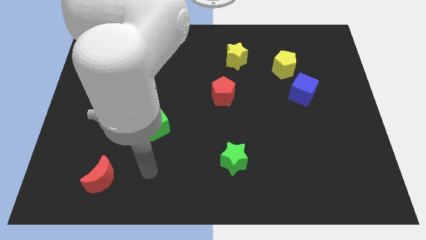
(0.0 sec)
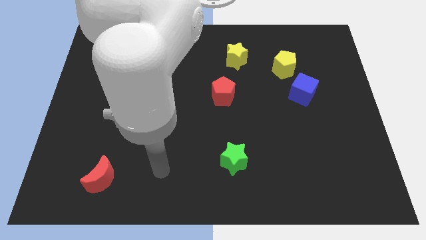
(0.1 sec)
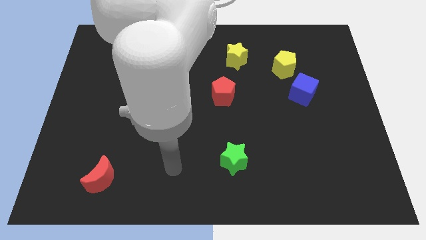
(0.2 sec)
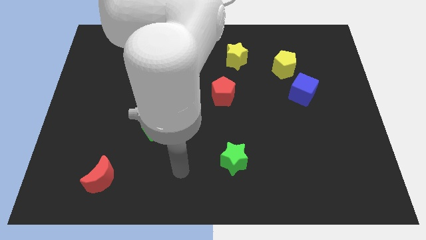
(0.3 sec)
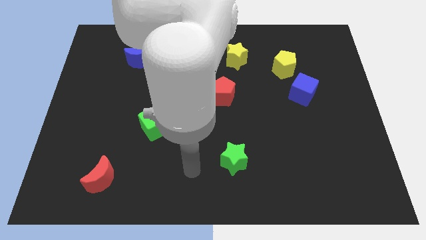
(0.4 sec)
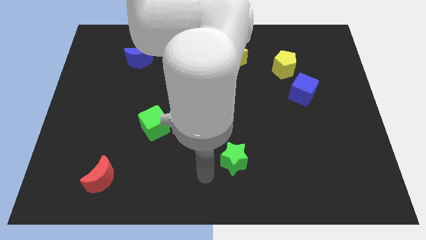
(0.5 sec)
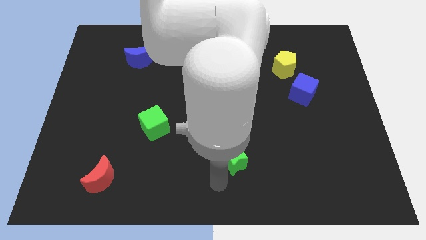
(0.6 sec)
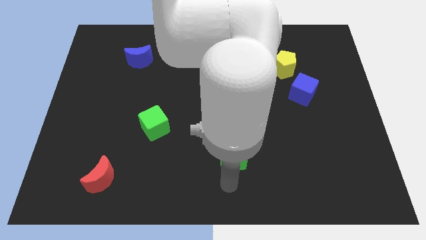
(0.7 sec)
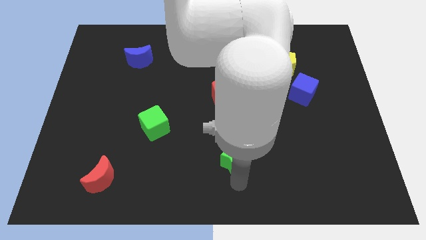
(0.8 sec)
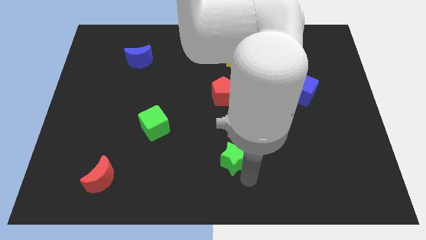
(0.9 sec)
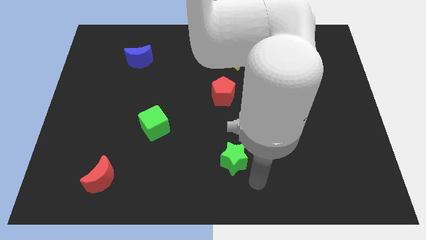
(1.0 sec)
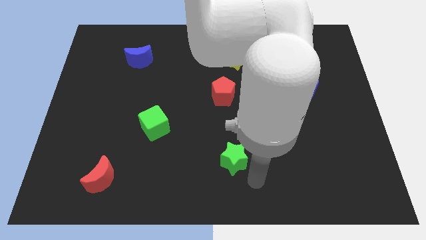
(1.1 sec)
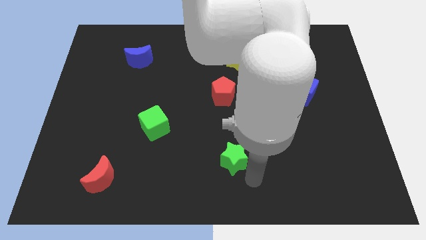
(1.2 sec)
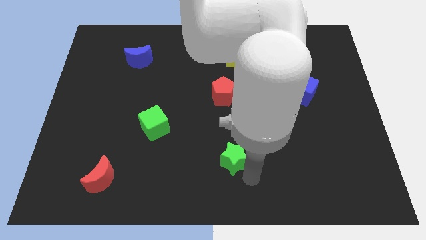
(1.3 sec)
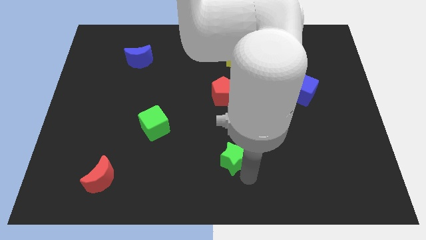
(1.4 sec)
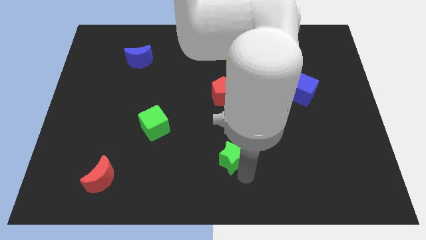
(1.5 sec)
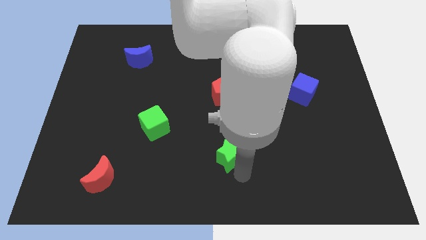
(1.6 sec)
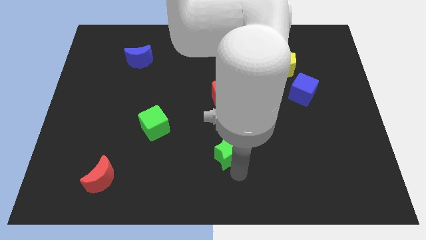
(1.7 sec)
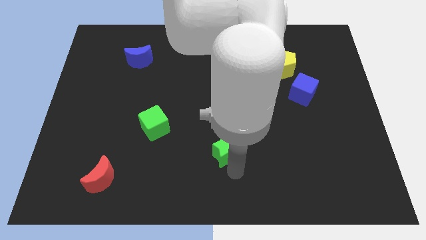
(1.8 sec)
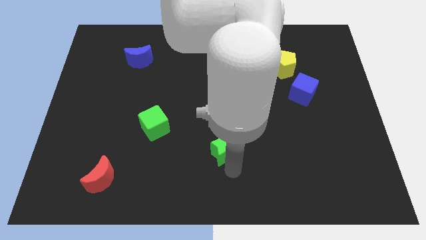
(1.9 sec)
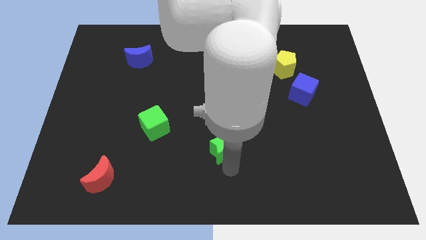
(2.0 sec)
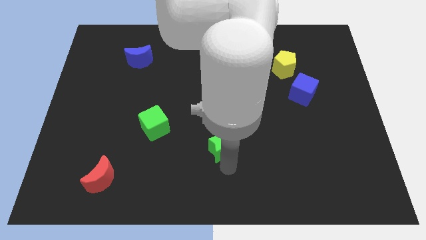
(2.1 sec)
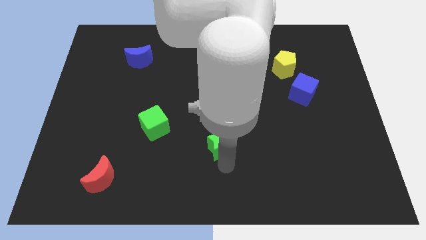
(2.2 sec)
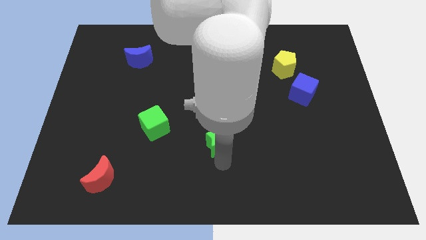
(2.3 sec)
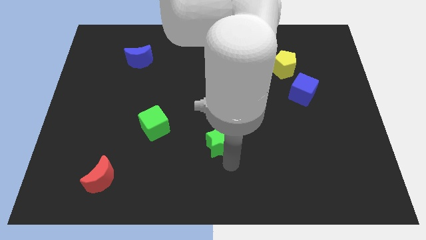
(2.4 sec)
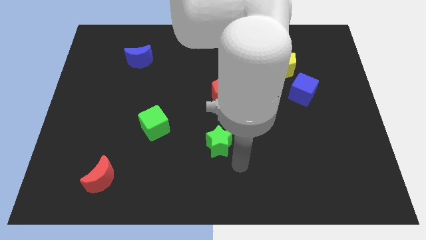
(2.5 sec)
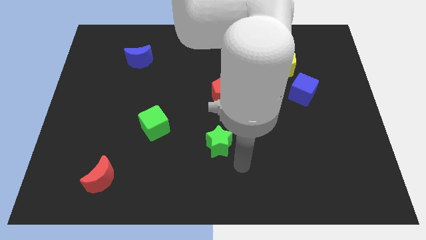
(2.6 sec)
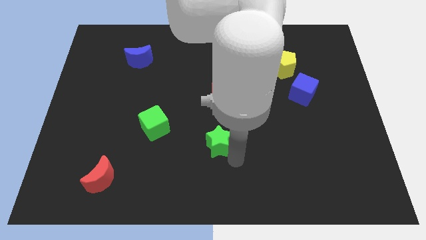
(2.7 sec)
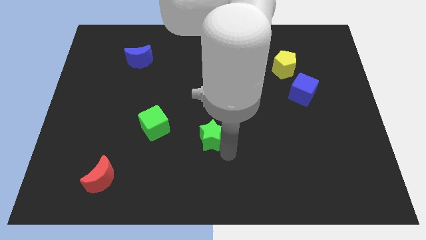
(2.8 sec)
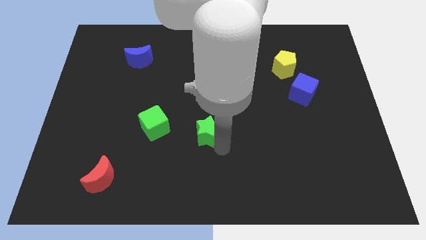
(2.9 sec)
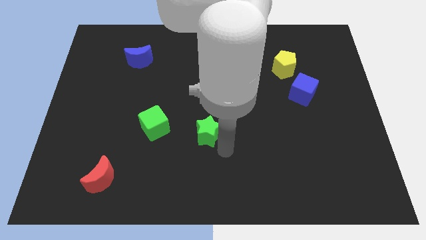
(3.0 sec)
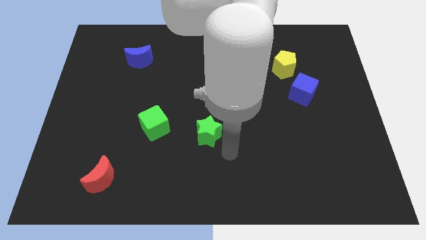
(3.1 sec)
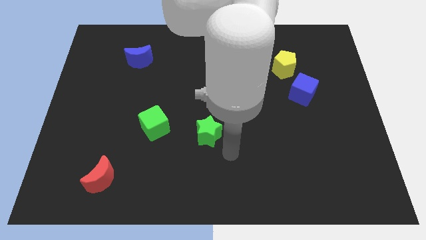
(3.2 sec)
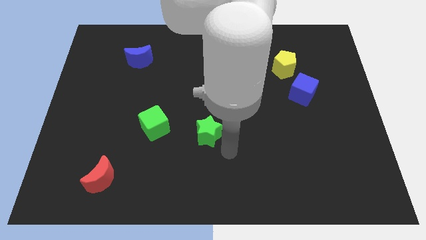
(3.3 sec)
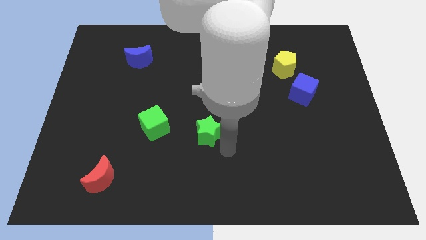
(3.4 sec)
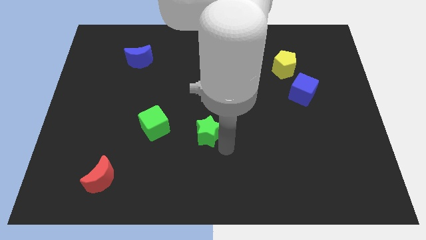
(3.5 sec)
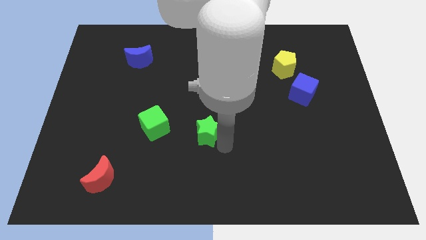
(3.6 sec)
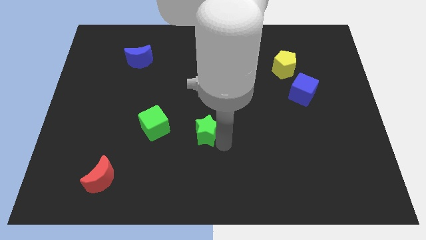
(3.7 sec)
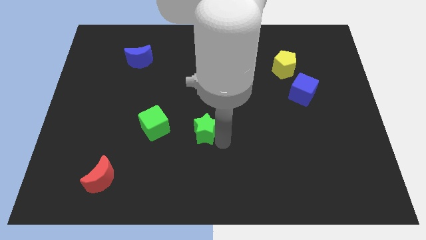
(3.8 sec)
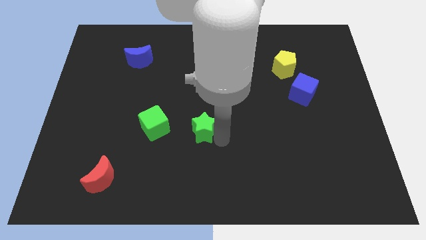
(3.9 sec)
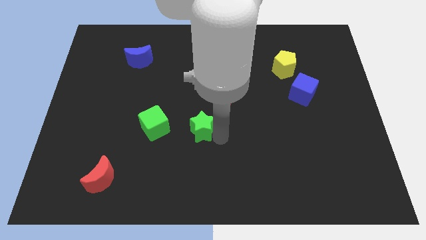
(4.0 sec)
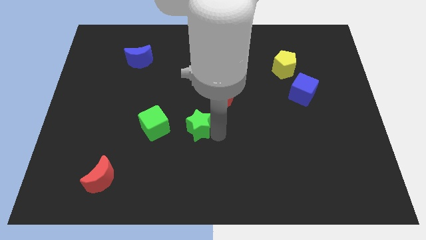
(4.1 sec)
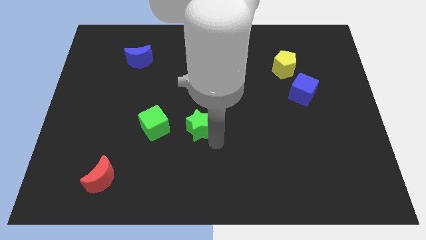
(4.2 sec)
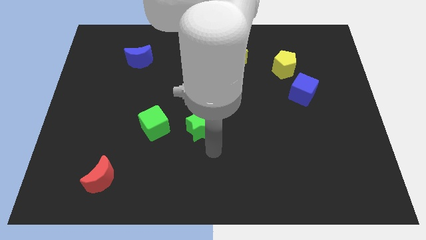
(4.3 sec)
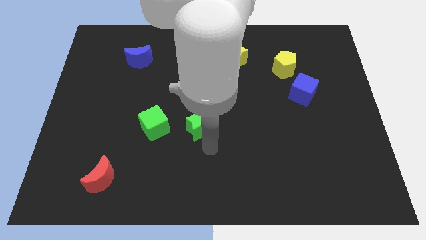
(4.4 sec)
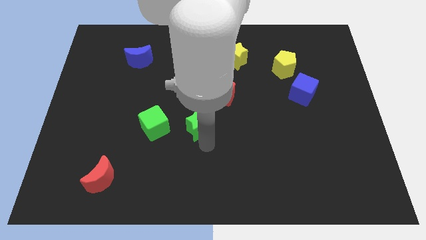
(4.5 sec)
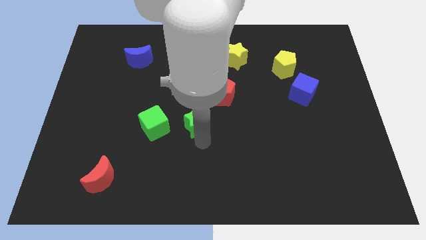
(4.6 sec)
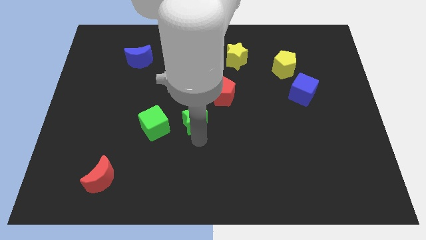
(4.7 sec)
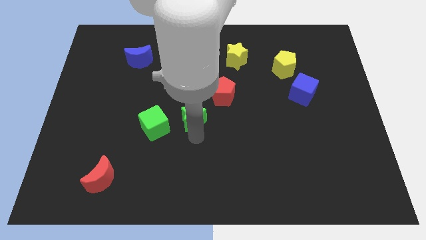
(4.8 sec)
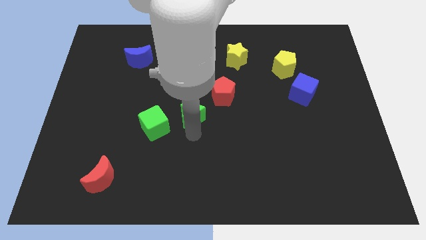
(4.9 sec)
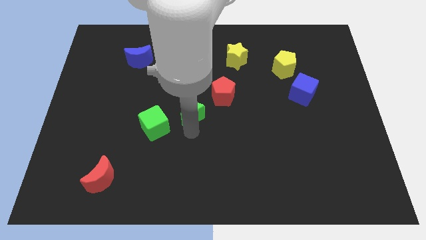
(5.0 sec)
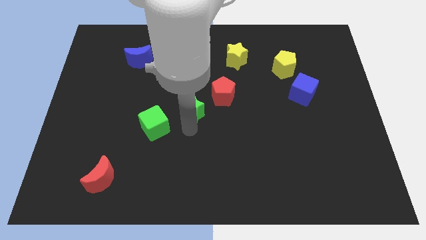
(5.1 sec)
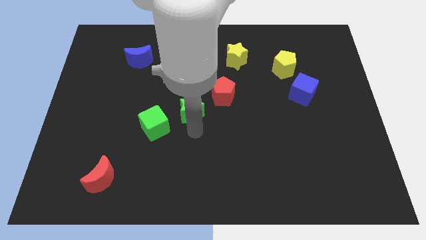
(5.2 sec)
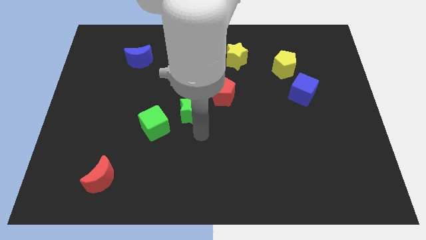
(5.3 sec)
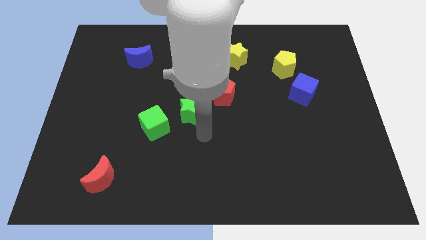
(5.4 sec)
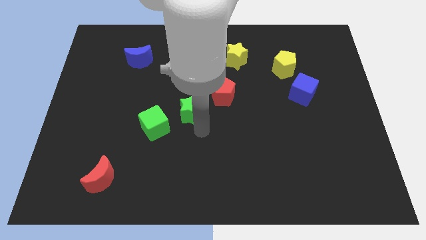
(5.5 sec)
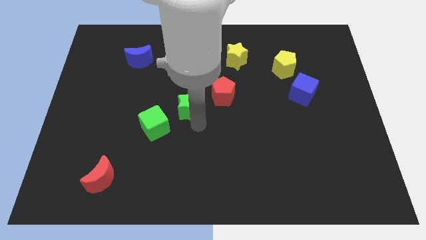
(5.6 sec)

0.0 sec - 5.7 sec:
put the green star to the left side of the red pentagon

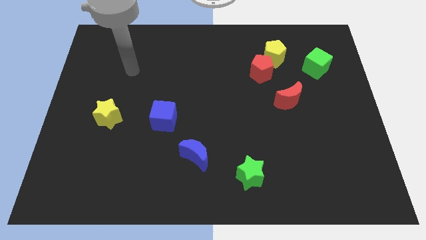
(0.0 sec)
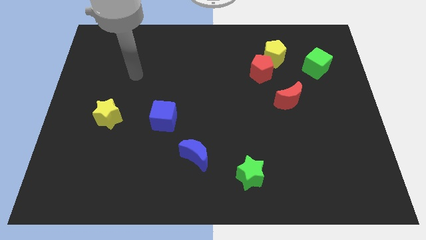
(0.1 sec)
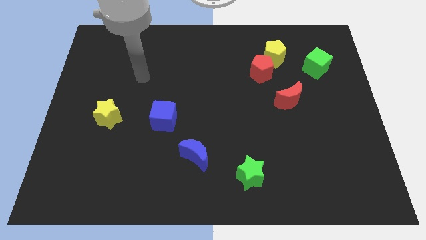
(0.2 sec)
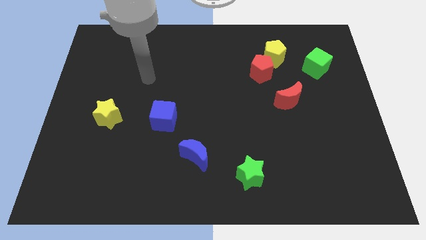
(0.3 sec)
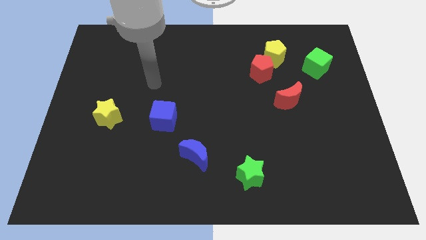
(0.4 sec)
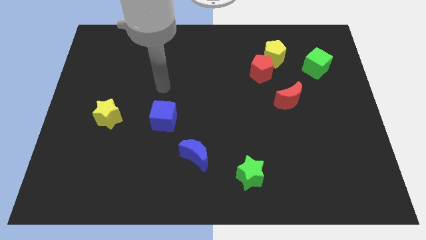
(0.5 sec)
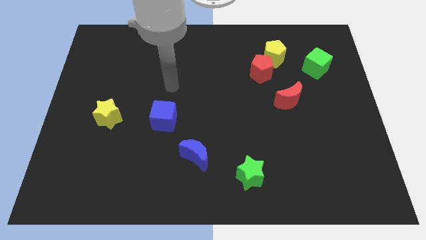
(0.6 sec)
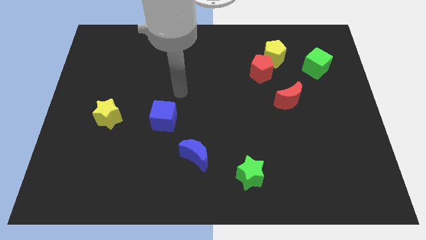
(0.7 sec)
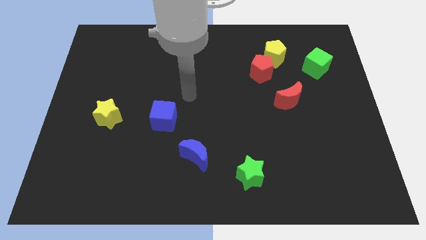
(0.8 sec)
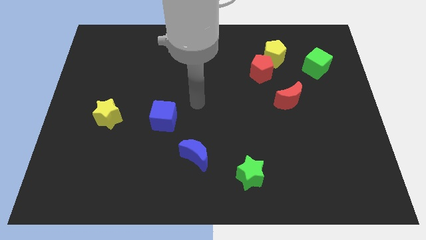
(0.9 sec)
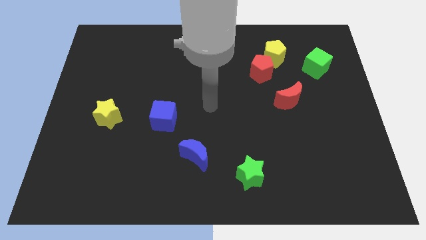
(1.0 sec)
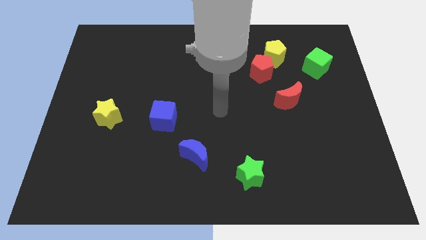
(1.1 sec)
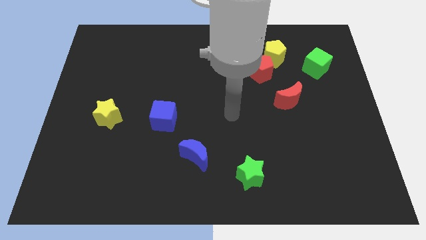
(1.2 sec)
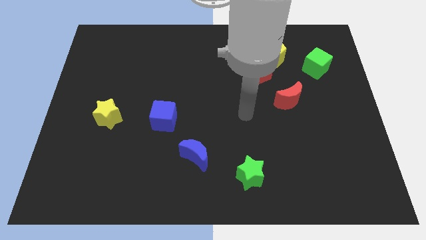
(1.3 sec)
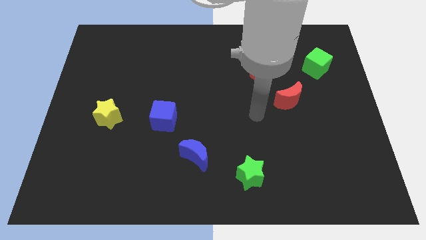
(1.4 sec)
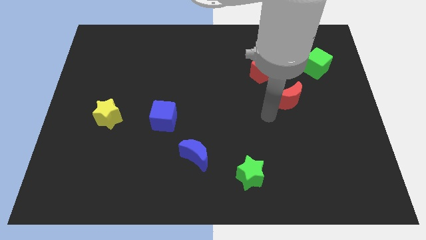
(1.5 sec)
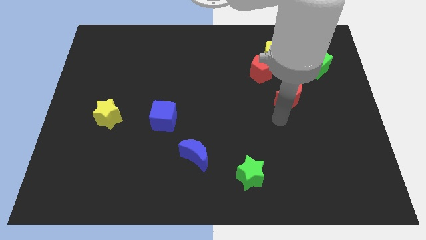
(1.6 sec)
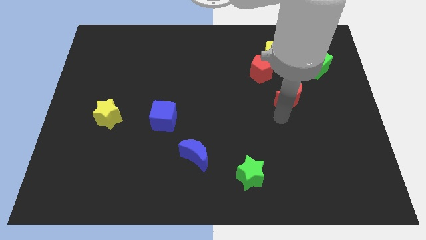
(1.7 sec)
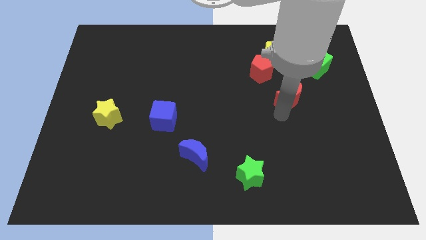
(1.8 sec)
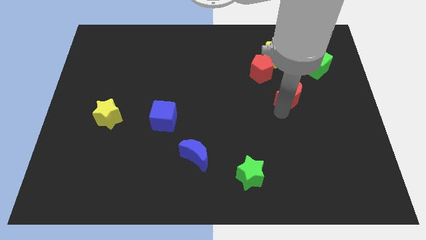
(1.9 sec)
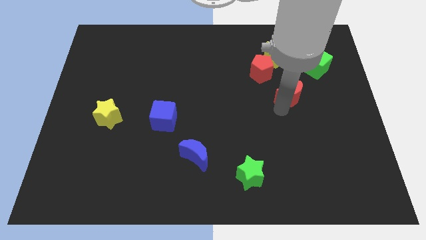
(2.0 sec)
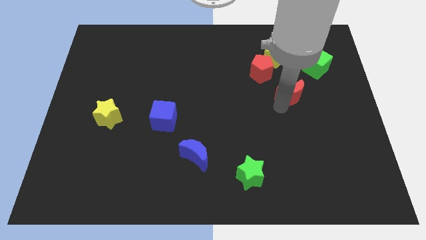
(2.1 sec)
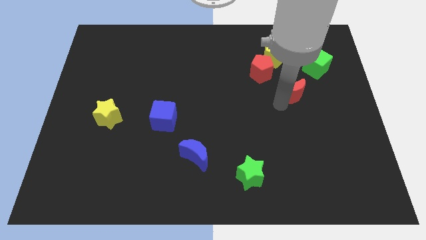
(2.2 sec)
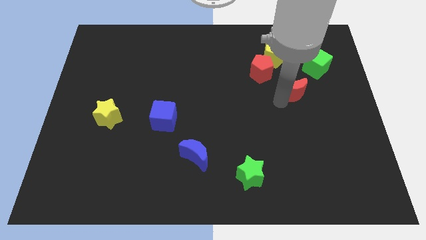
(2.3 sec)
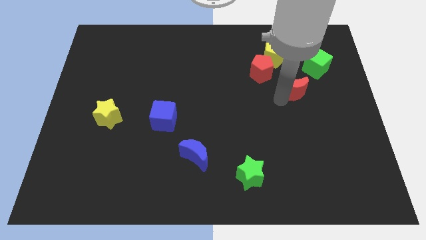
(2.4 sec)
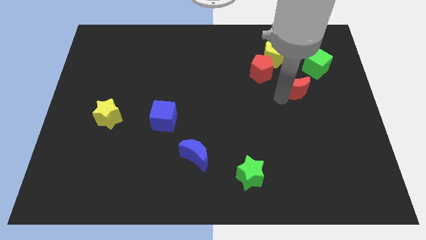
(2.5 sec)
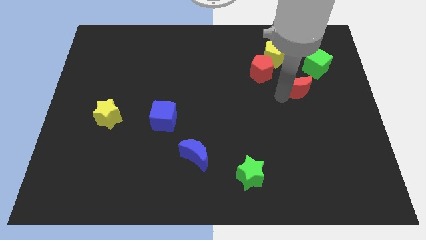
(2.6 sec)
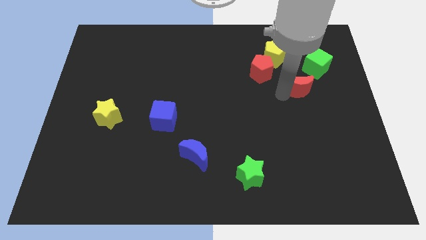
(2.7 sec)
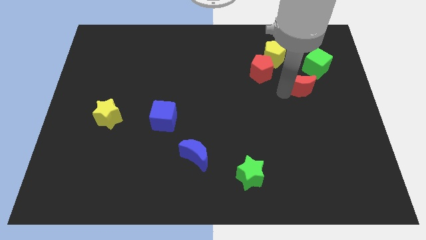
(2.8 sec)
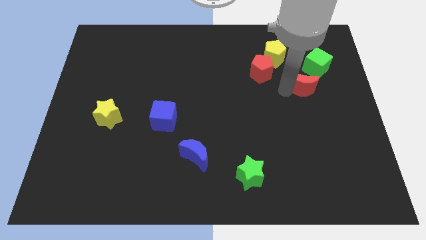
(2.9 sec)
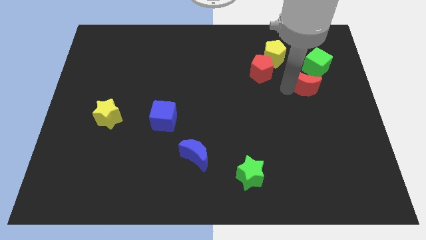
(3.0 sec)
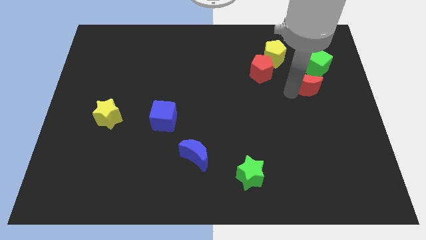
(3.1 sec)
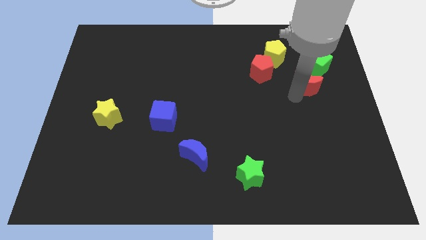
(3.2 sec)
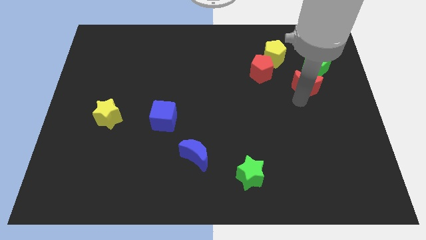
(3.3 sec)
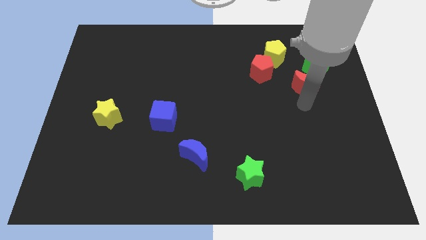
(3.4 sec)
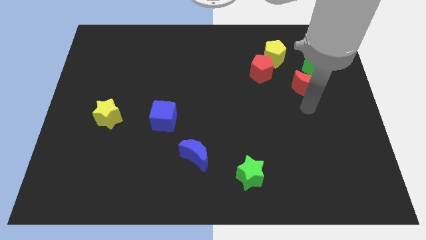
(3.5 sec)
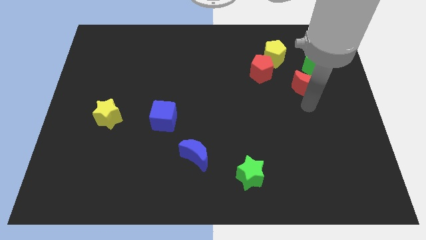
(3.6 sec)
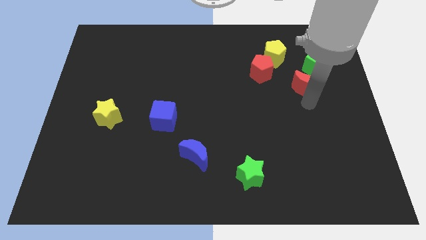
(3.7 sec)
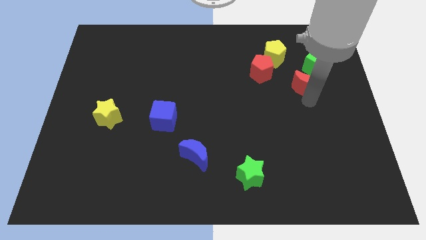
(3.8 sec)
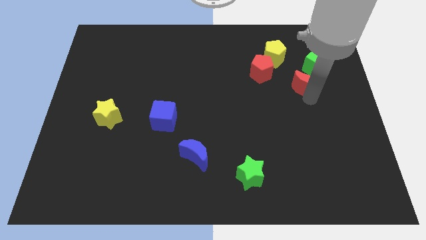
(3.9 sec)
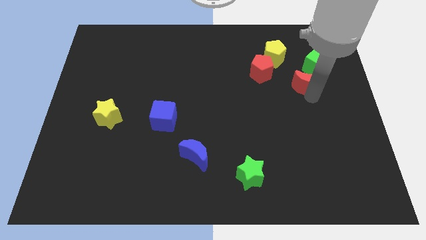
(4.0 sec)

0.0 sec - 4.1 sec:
move the red moon to the right side of the red pentagon
